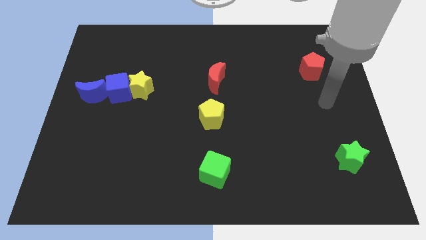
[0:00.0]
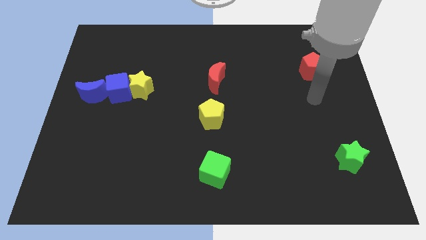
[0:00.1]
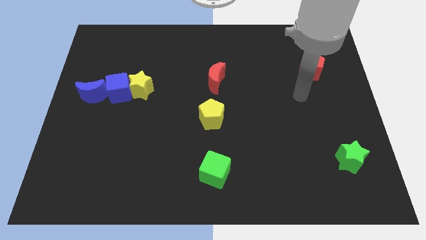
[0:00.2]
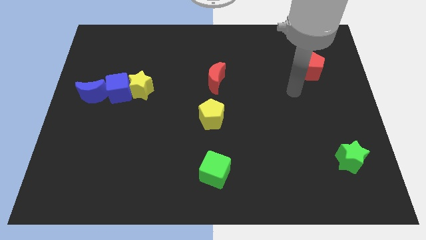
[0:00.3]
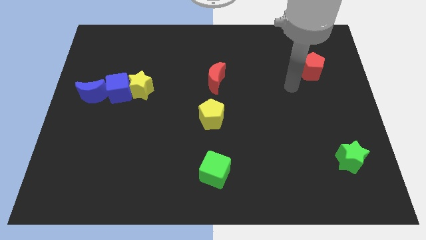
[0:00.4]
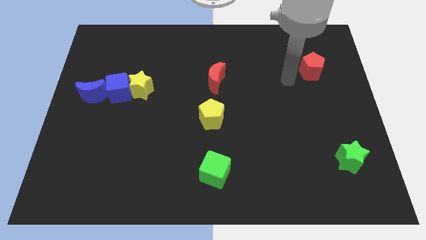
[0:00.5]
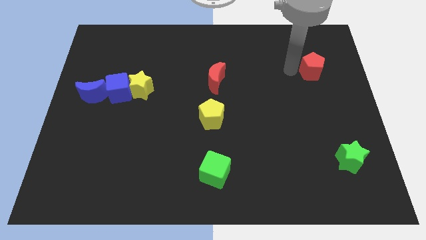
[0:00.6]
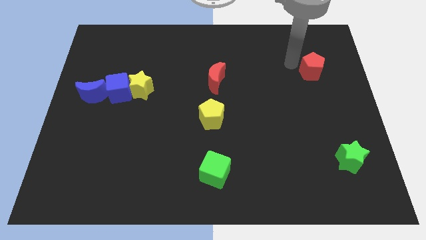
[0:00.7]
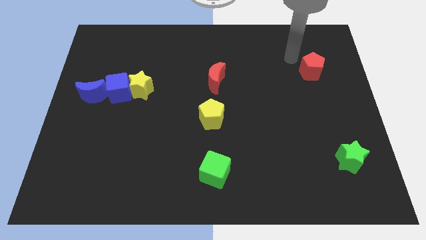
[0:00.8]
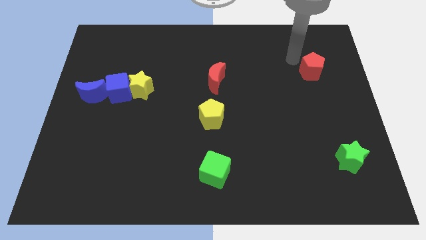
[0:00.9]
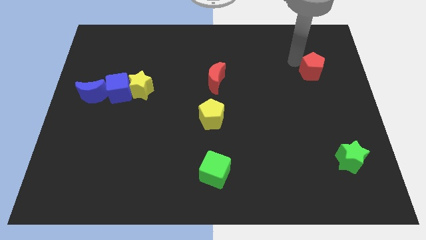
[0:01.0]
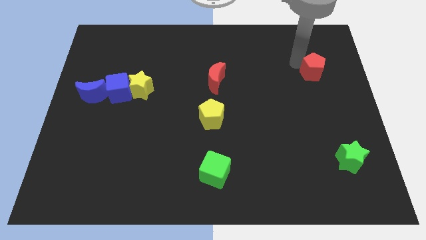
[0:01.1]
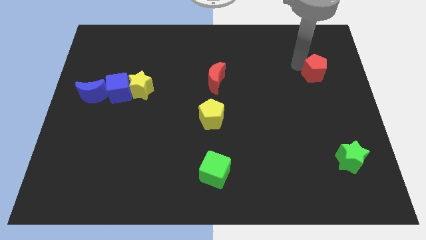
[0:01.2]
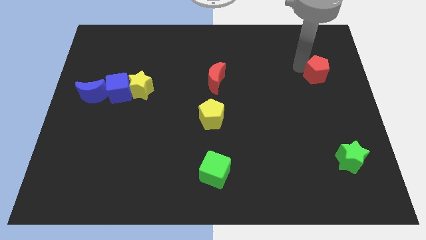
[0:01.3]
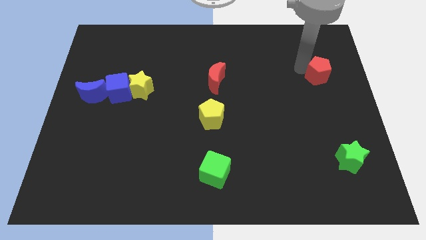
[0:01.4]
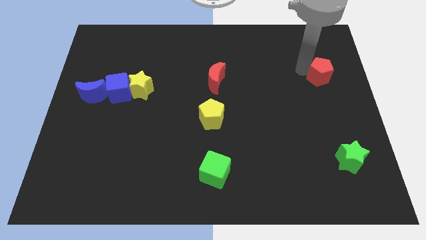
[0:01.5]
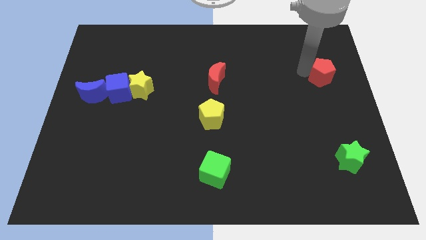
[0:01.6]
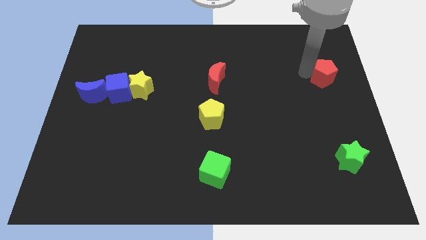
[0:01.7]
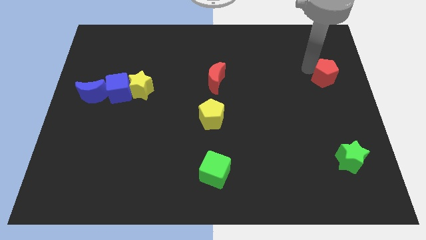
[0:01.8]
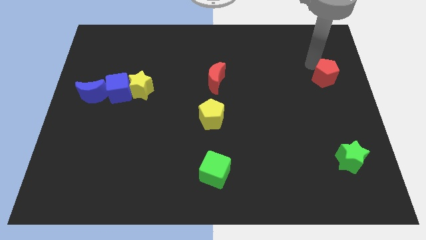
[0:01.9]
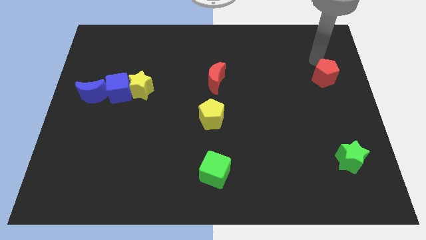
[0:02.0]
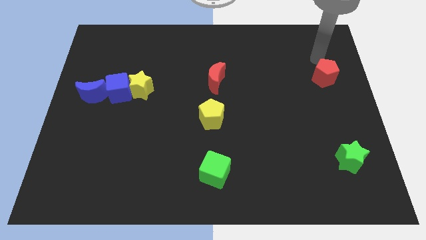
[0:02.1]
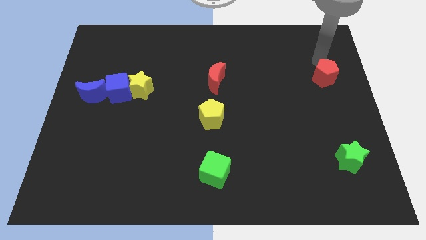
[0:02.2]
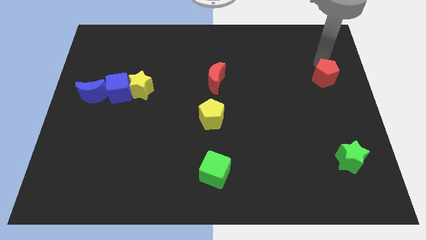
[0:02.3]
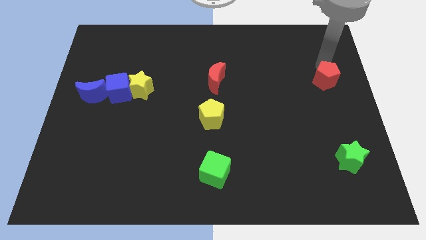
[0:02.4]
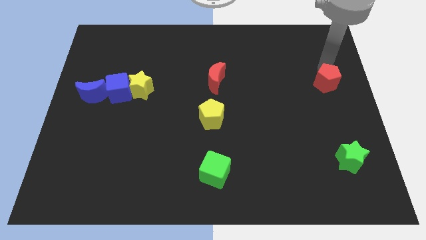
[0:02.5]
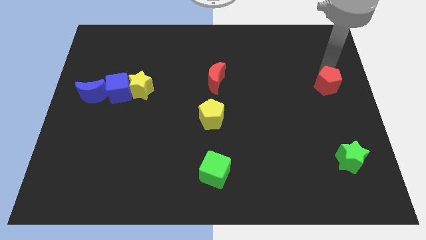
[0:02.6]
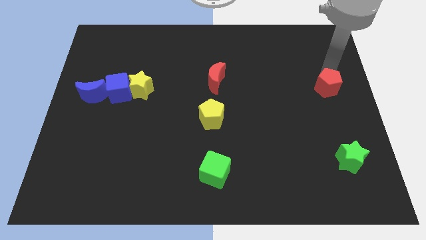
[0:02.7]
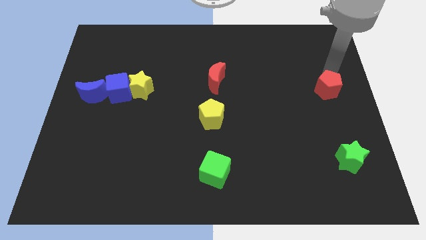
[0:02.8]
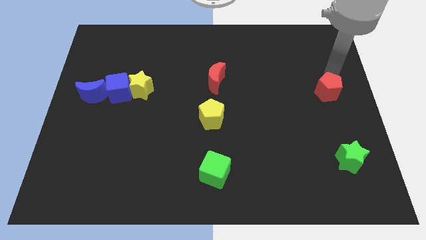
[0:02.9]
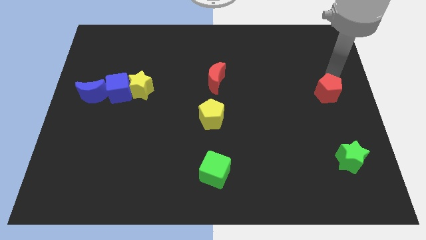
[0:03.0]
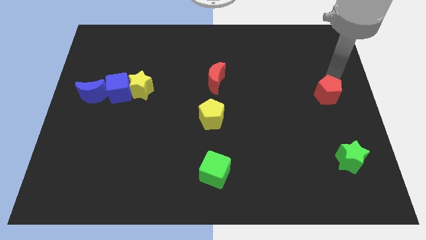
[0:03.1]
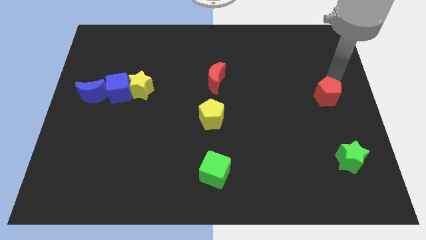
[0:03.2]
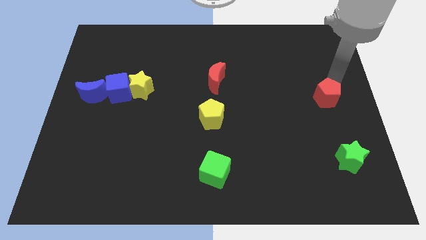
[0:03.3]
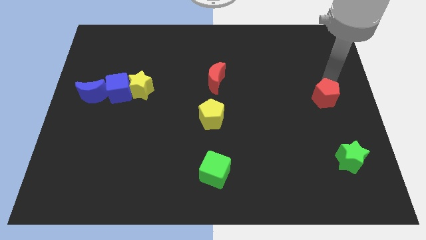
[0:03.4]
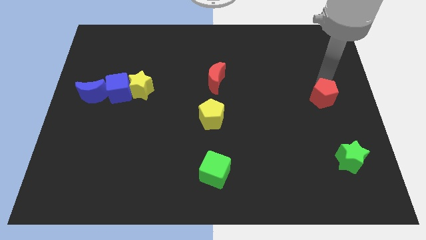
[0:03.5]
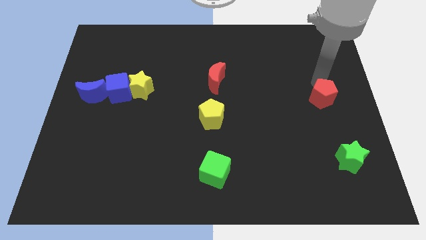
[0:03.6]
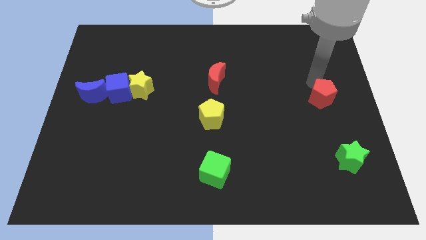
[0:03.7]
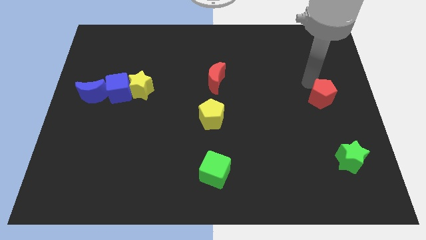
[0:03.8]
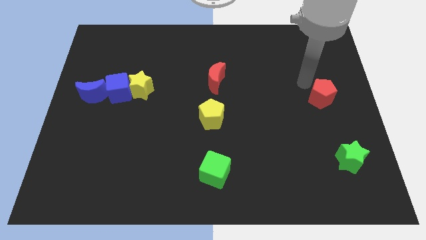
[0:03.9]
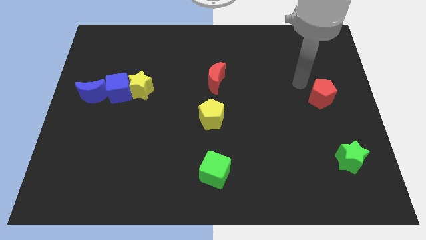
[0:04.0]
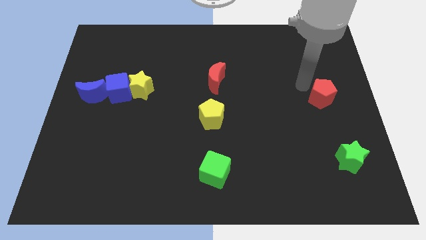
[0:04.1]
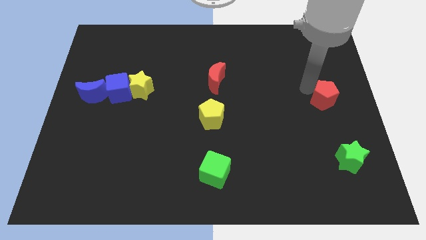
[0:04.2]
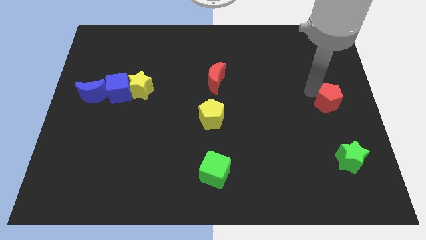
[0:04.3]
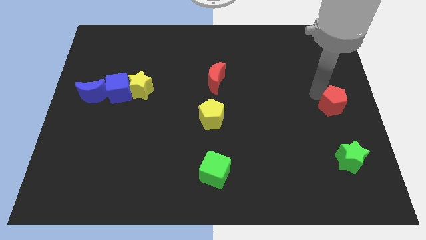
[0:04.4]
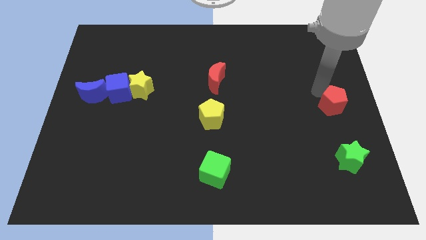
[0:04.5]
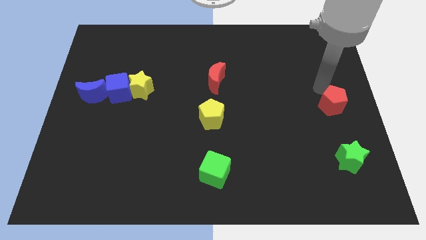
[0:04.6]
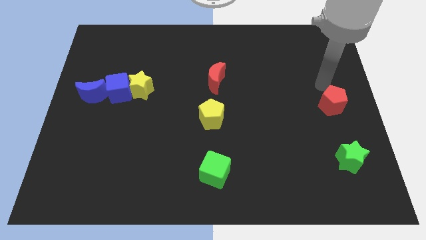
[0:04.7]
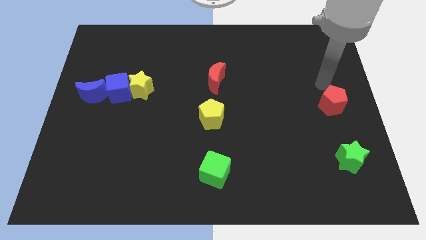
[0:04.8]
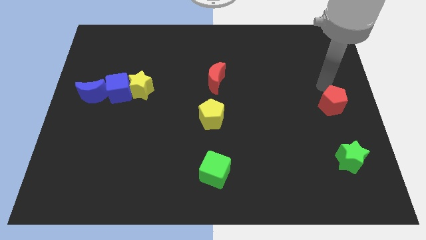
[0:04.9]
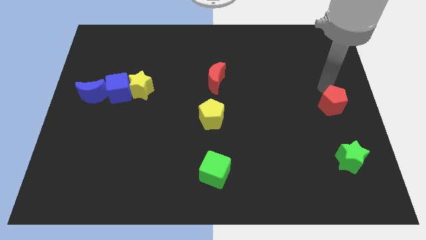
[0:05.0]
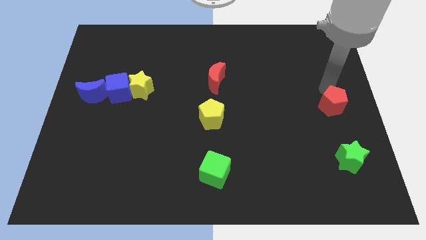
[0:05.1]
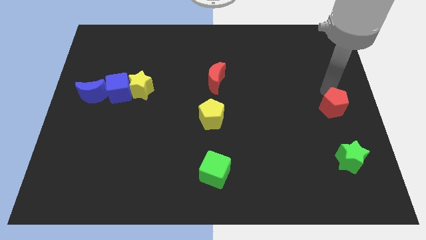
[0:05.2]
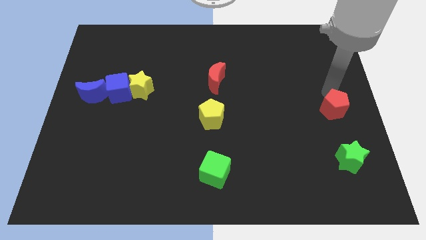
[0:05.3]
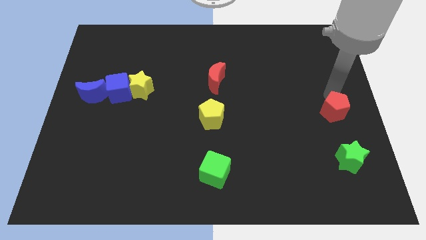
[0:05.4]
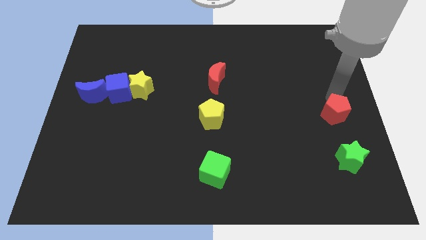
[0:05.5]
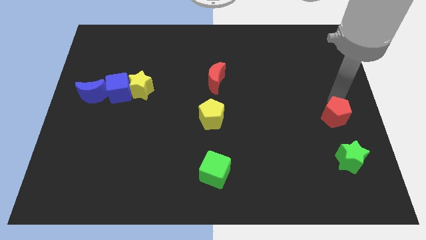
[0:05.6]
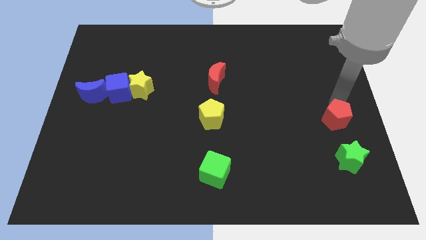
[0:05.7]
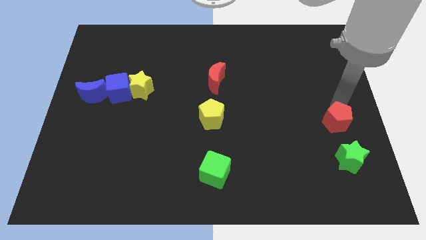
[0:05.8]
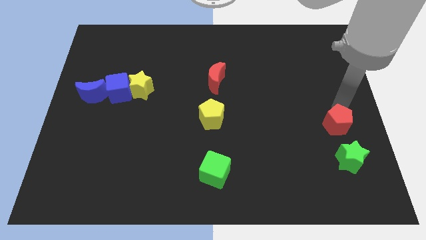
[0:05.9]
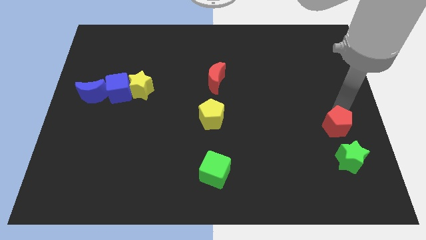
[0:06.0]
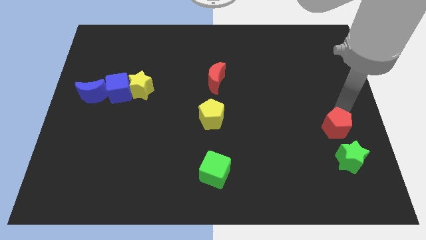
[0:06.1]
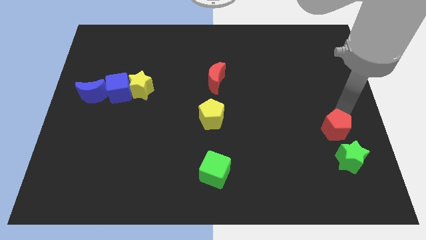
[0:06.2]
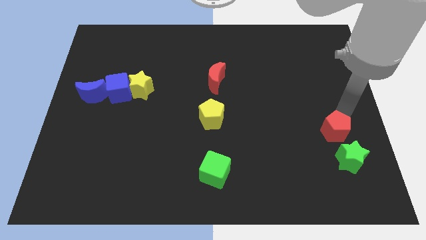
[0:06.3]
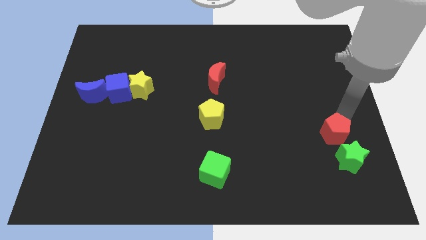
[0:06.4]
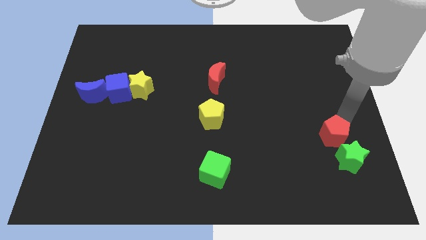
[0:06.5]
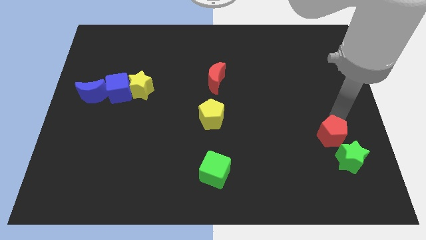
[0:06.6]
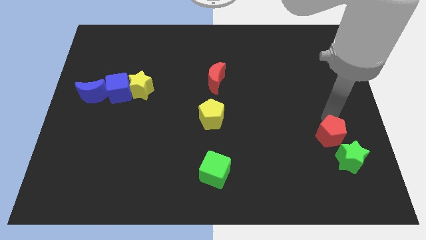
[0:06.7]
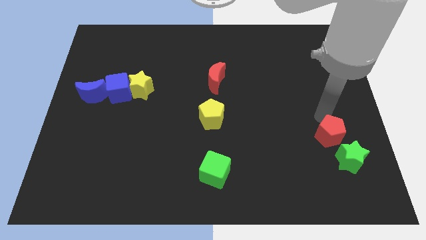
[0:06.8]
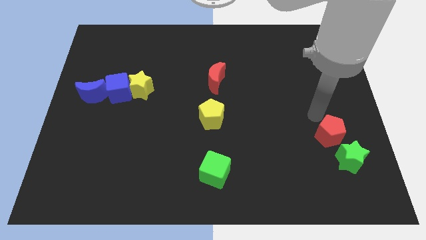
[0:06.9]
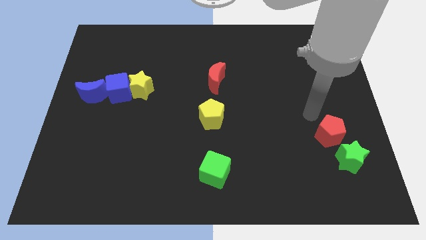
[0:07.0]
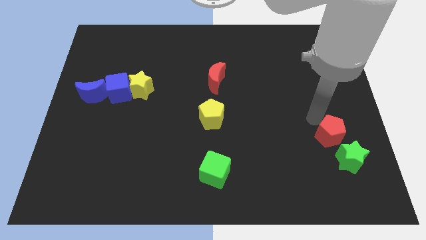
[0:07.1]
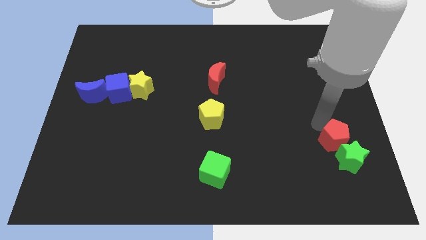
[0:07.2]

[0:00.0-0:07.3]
put the red pentagon towards the green star
